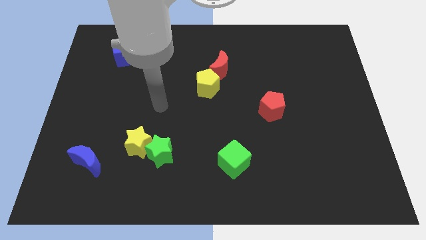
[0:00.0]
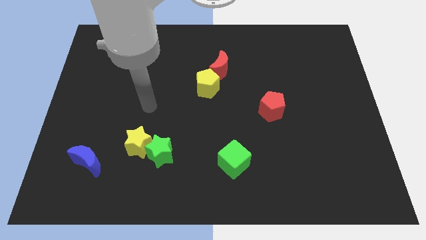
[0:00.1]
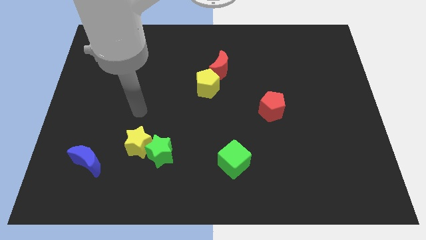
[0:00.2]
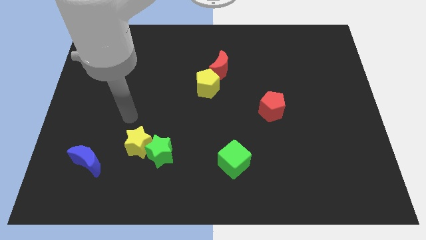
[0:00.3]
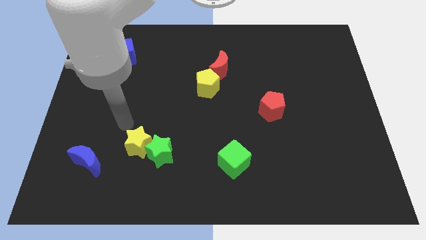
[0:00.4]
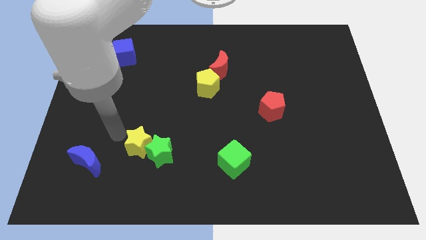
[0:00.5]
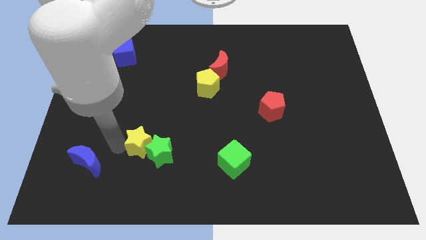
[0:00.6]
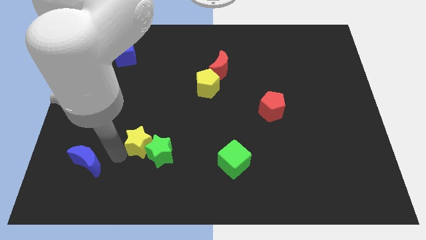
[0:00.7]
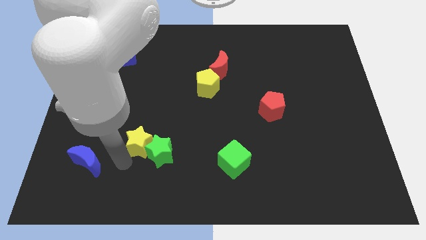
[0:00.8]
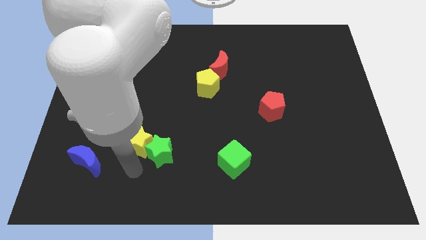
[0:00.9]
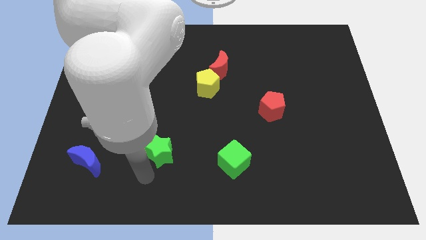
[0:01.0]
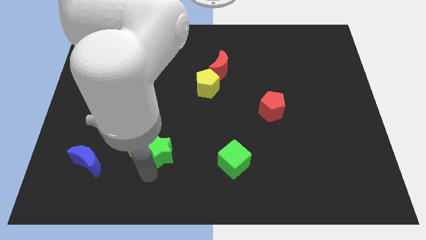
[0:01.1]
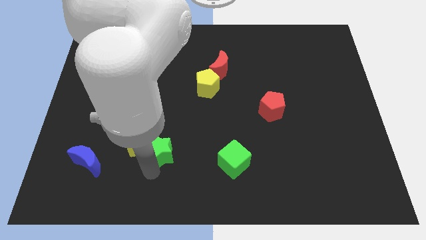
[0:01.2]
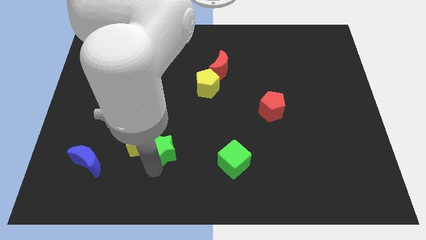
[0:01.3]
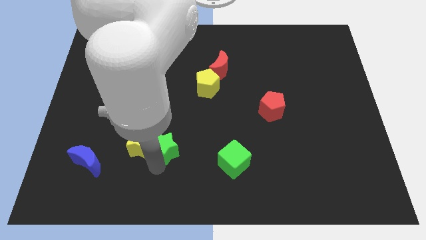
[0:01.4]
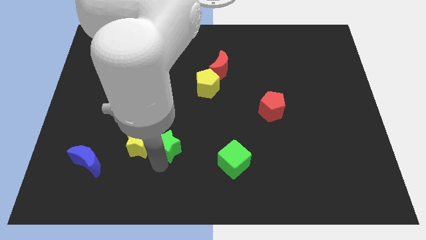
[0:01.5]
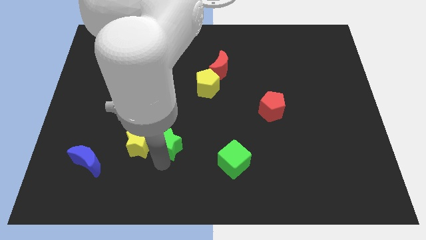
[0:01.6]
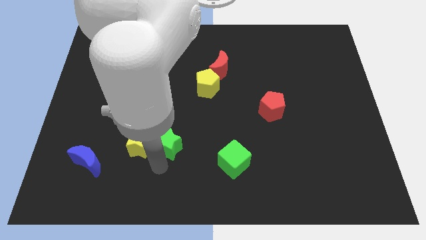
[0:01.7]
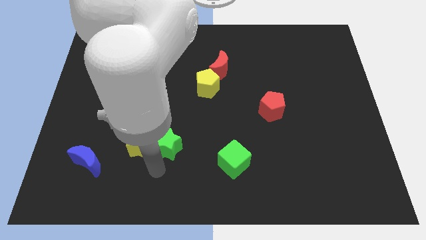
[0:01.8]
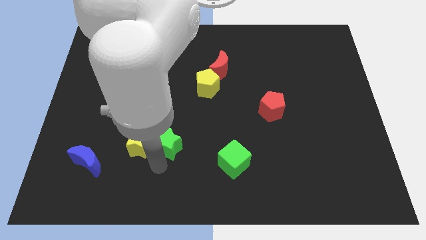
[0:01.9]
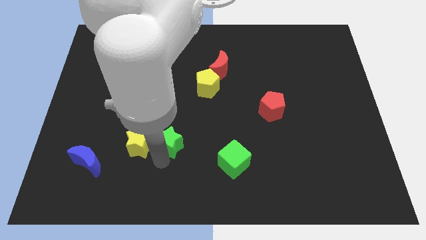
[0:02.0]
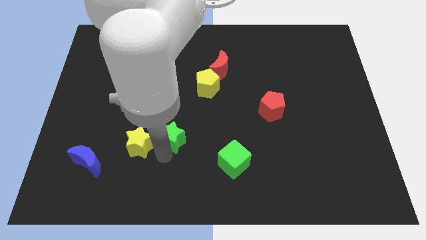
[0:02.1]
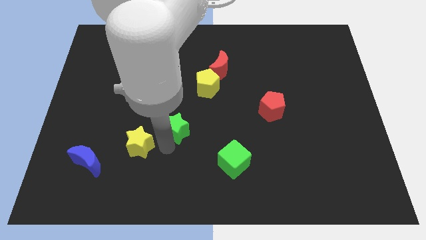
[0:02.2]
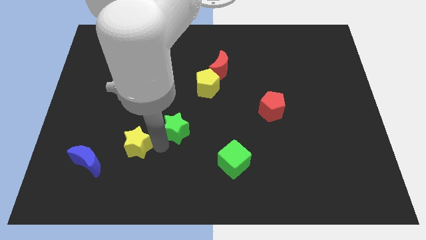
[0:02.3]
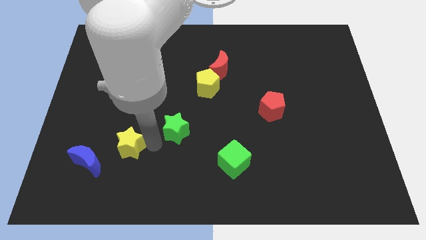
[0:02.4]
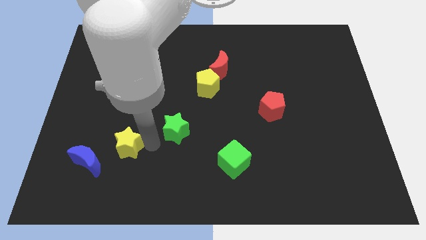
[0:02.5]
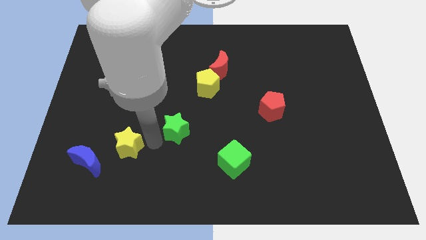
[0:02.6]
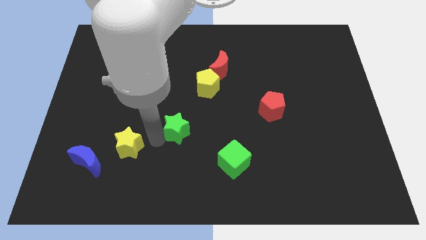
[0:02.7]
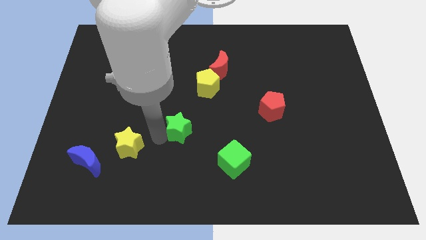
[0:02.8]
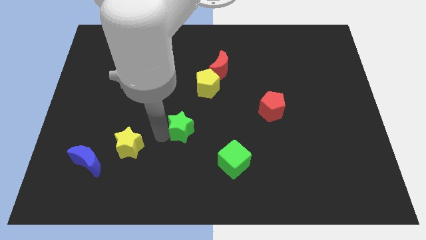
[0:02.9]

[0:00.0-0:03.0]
slightly slide the green star up and then to the right

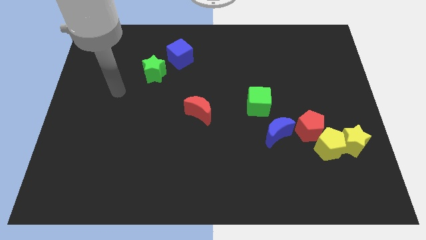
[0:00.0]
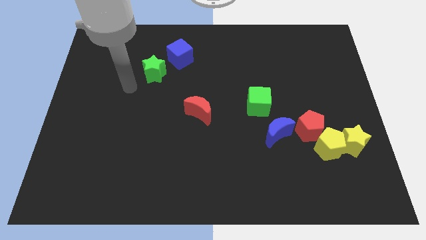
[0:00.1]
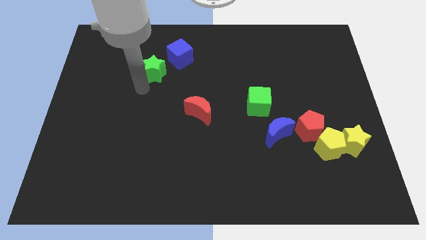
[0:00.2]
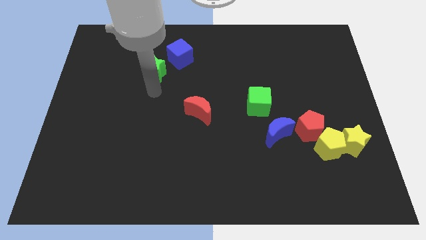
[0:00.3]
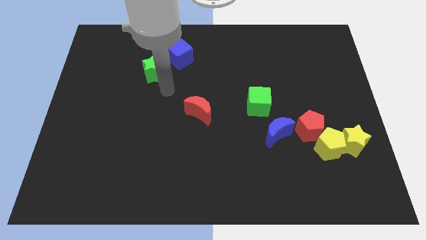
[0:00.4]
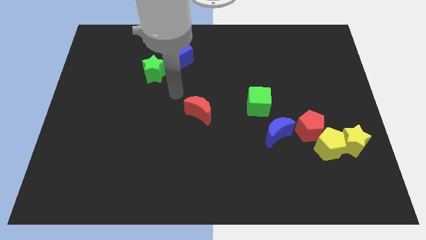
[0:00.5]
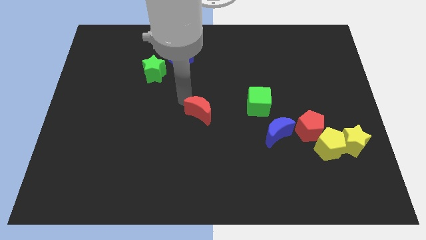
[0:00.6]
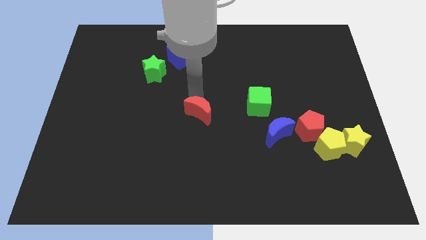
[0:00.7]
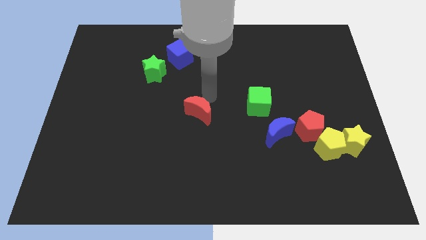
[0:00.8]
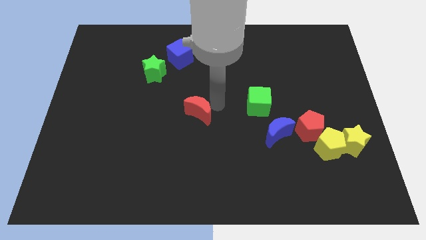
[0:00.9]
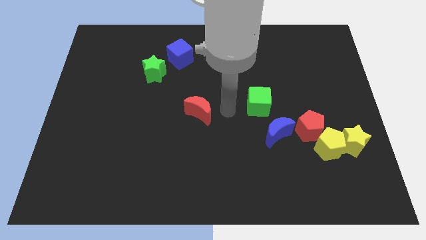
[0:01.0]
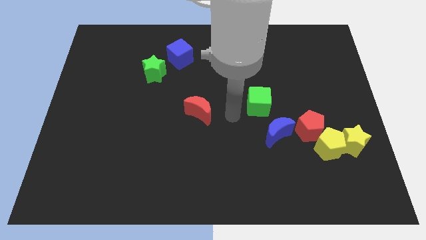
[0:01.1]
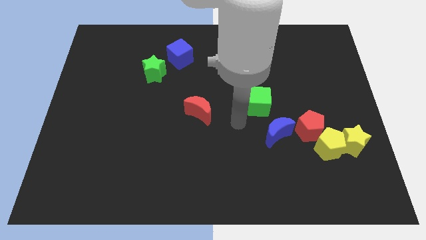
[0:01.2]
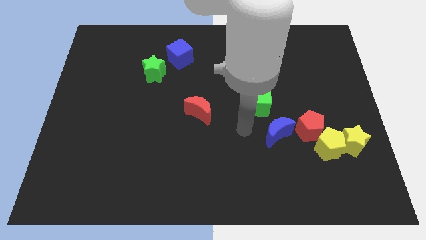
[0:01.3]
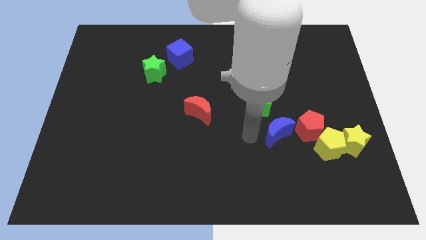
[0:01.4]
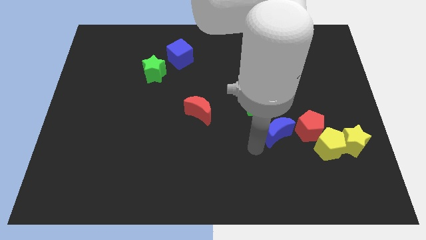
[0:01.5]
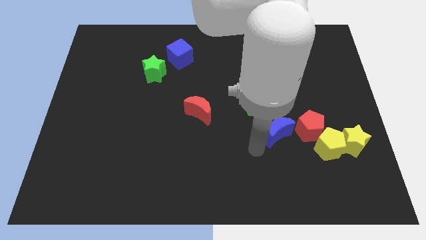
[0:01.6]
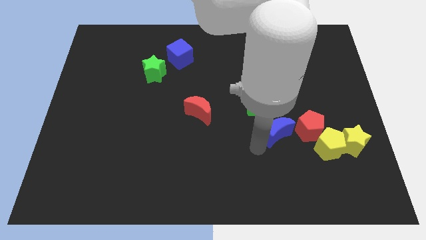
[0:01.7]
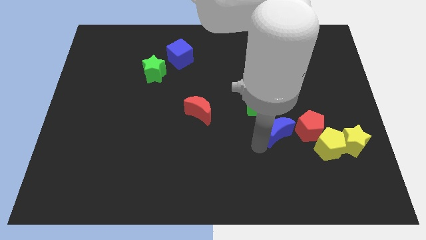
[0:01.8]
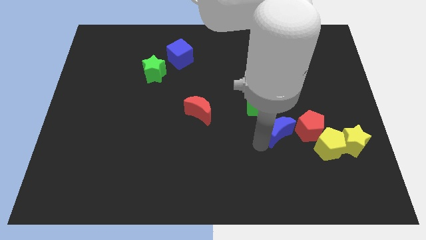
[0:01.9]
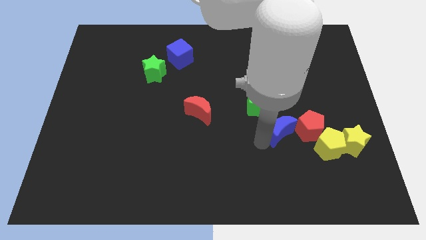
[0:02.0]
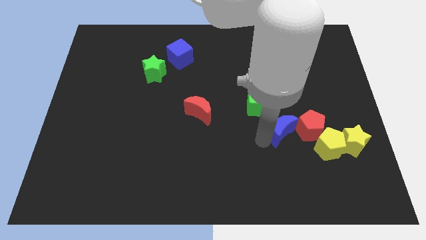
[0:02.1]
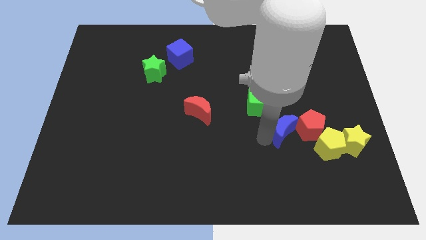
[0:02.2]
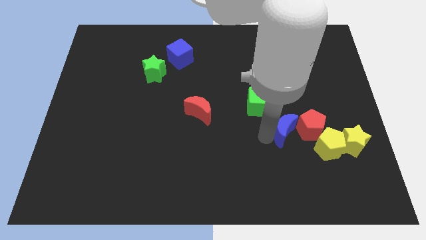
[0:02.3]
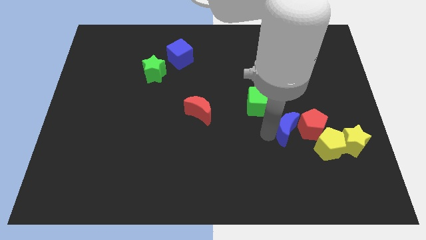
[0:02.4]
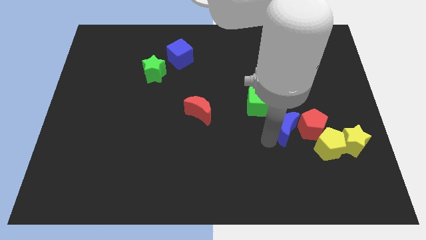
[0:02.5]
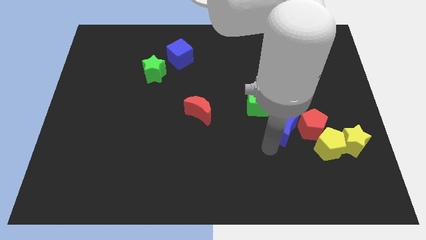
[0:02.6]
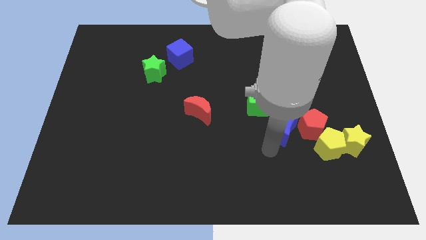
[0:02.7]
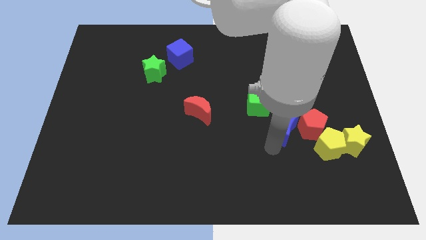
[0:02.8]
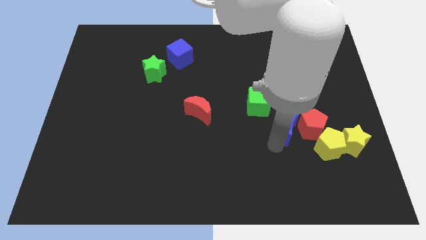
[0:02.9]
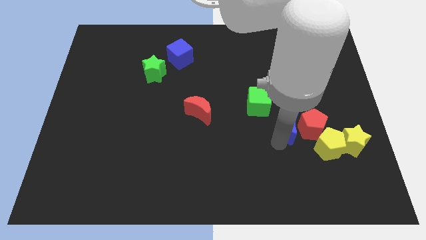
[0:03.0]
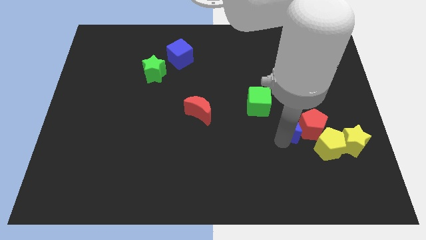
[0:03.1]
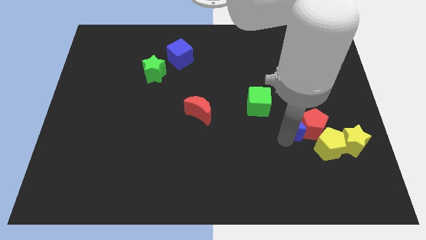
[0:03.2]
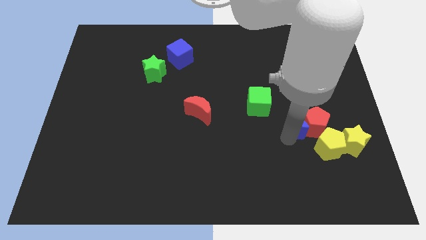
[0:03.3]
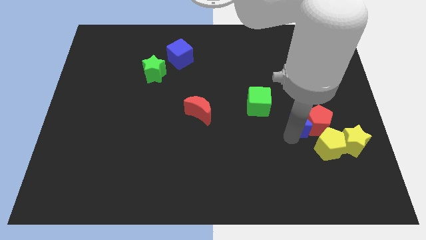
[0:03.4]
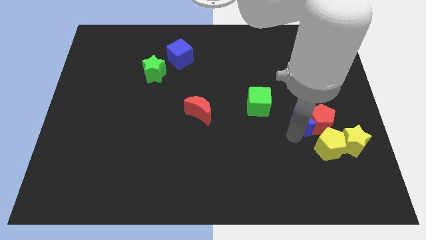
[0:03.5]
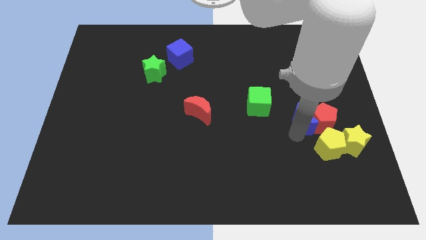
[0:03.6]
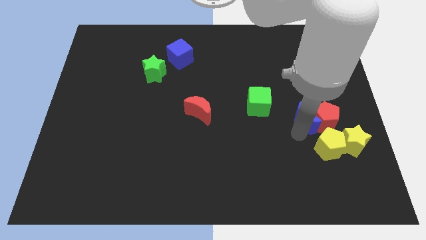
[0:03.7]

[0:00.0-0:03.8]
slide the blue moon a bit up and then right

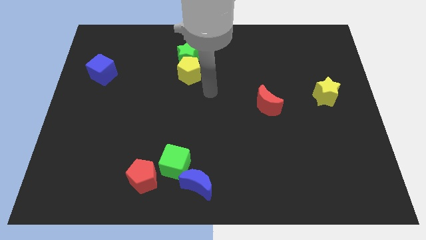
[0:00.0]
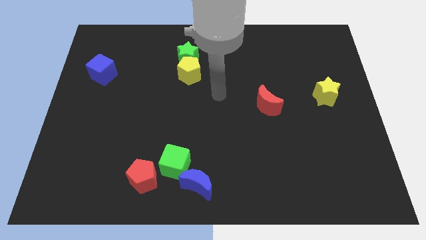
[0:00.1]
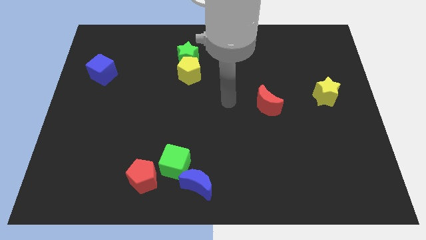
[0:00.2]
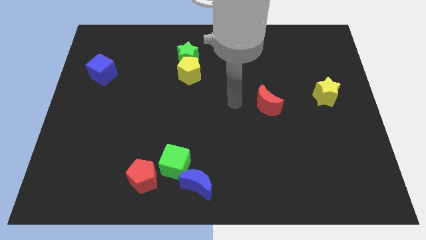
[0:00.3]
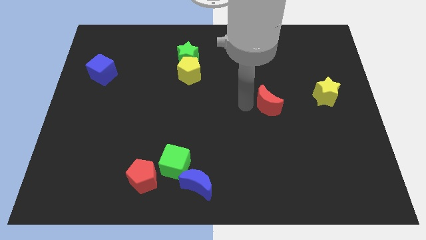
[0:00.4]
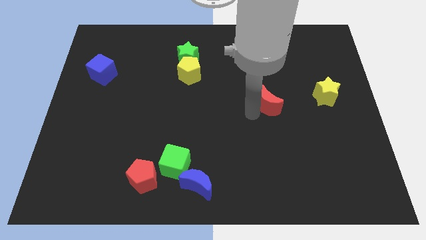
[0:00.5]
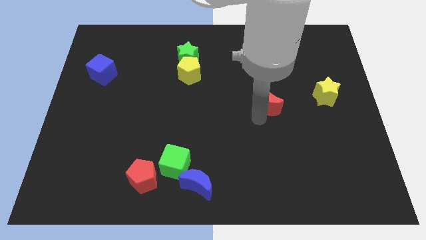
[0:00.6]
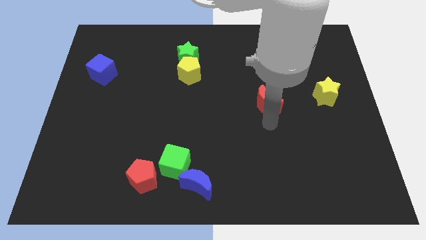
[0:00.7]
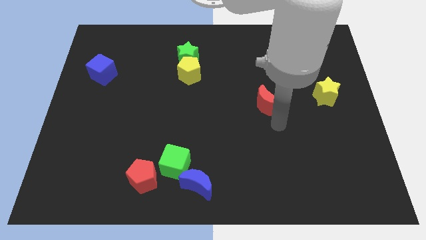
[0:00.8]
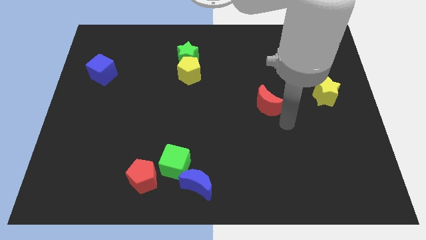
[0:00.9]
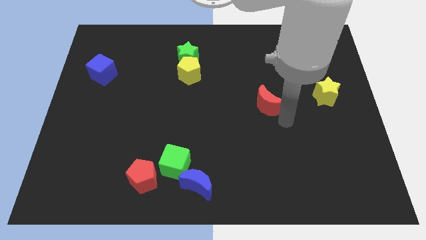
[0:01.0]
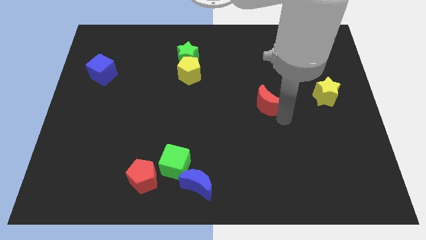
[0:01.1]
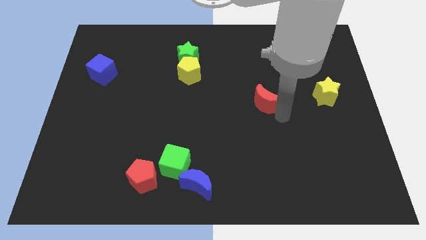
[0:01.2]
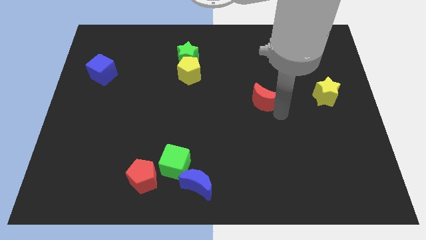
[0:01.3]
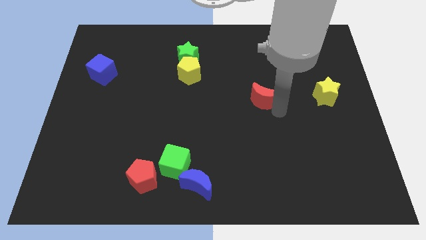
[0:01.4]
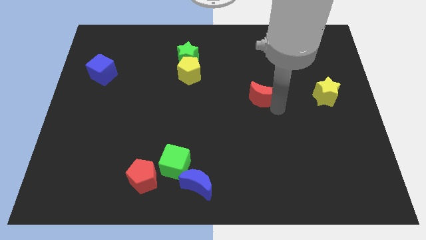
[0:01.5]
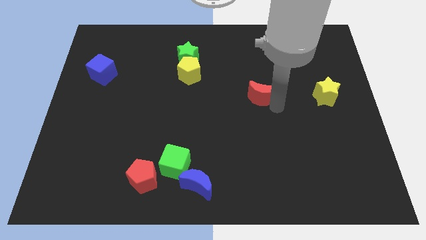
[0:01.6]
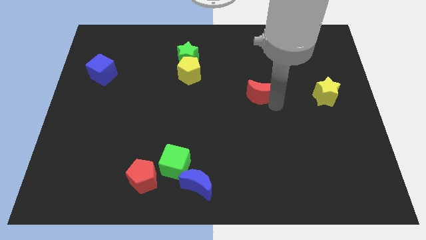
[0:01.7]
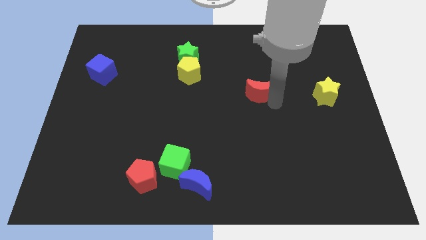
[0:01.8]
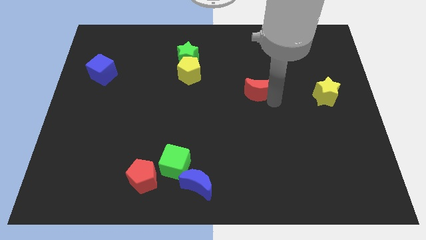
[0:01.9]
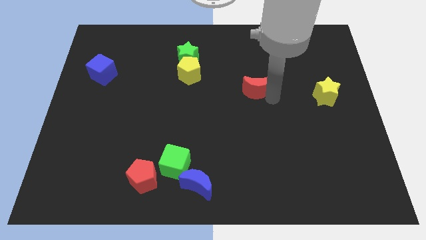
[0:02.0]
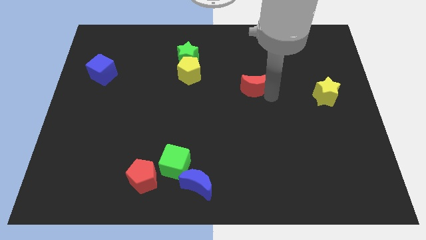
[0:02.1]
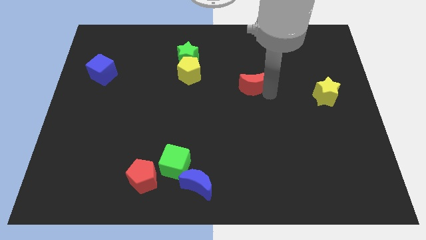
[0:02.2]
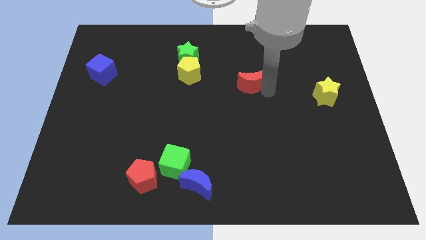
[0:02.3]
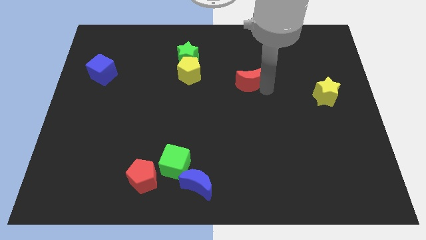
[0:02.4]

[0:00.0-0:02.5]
slide the red moon slightly upwards and to the left diagonally
